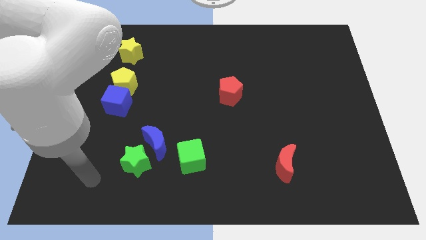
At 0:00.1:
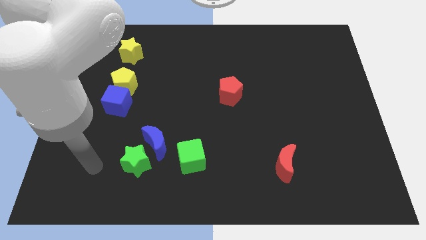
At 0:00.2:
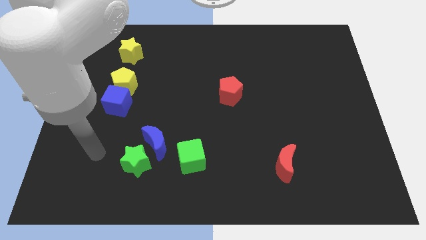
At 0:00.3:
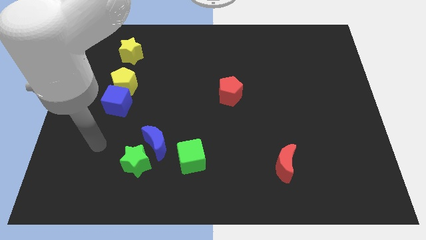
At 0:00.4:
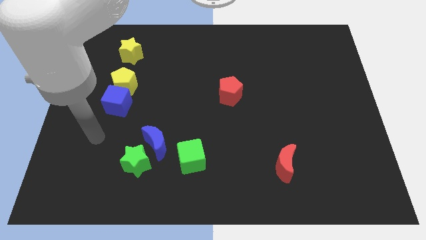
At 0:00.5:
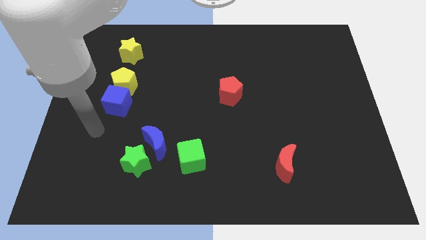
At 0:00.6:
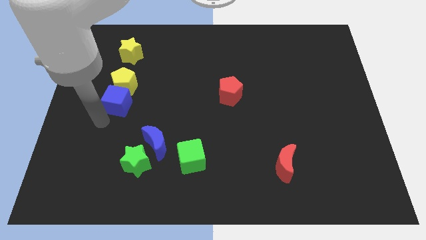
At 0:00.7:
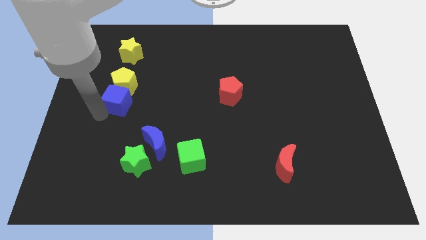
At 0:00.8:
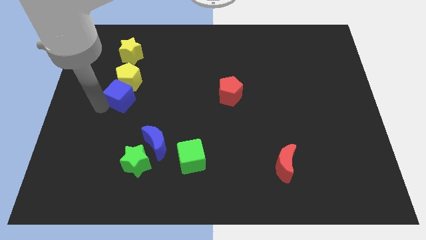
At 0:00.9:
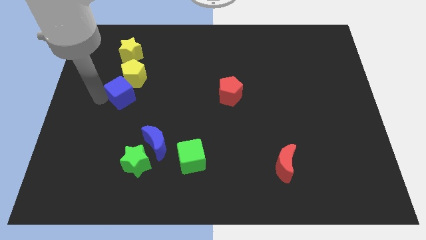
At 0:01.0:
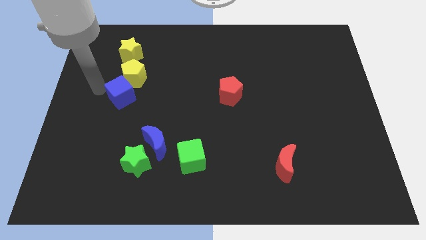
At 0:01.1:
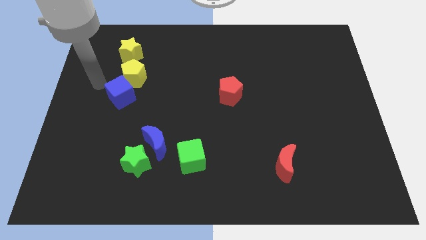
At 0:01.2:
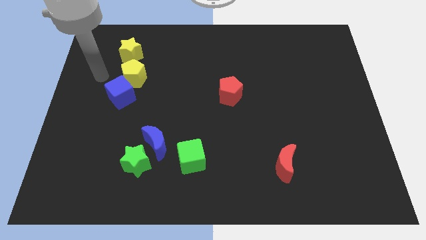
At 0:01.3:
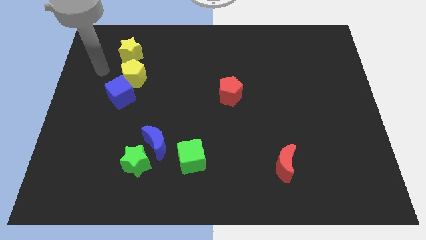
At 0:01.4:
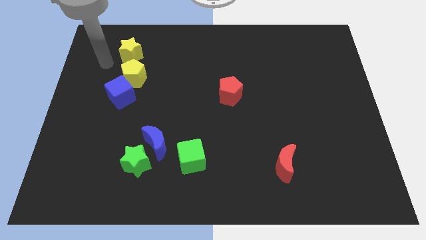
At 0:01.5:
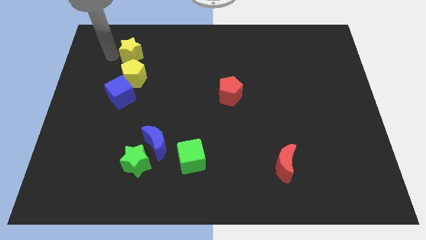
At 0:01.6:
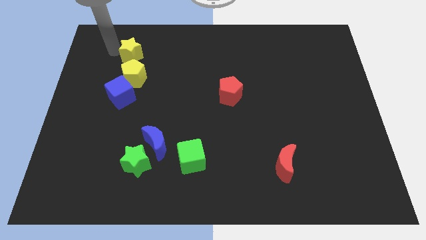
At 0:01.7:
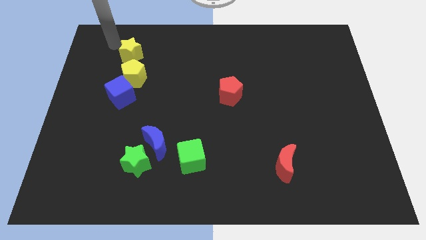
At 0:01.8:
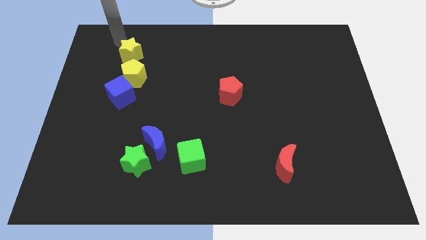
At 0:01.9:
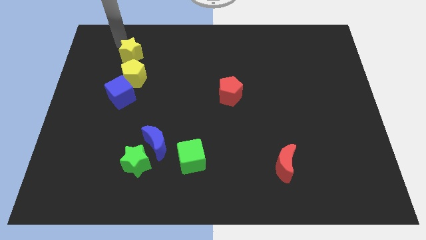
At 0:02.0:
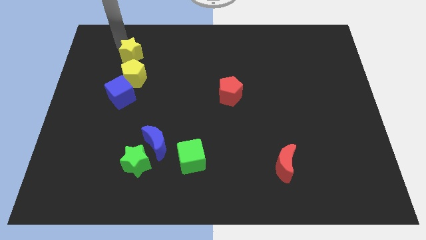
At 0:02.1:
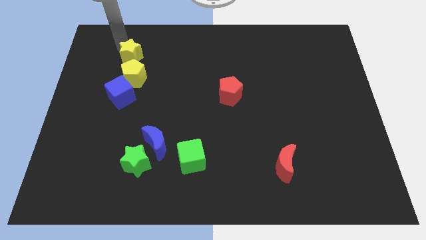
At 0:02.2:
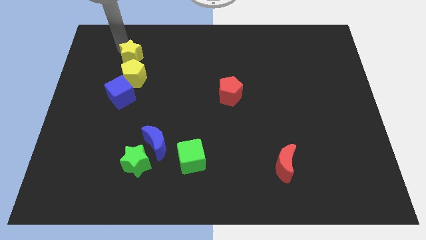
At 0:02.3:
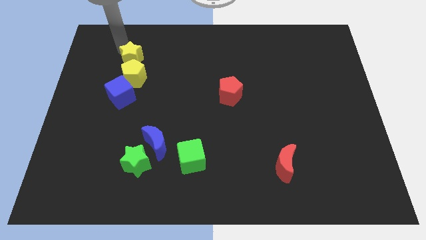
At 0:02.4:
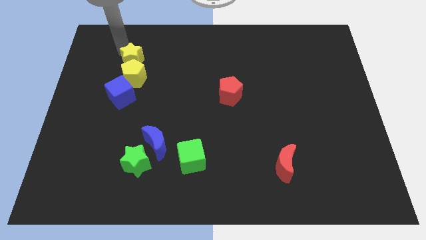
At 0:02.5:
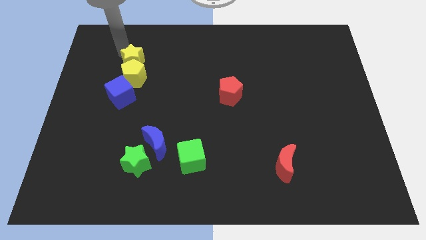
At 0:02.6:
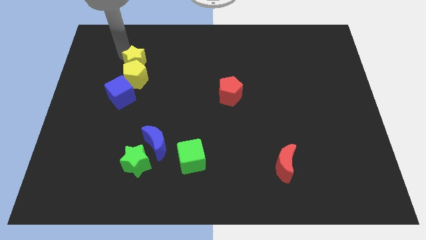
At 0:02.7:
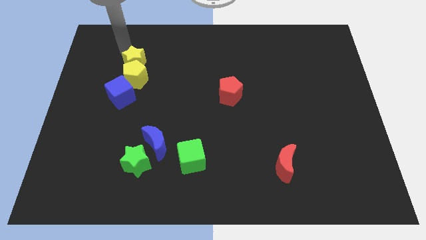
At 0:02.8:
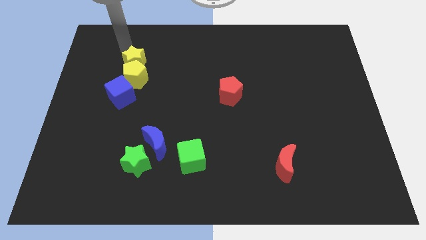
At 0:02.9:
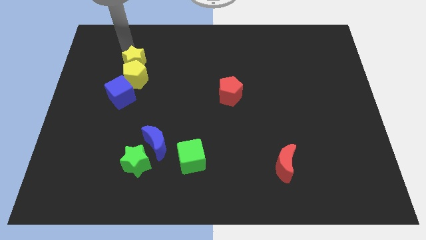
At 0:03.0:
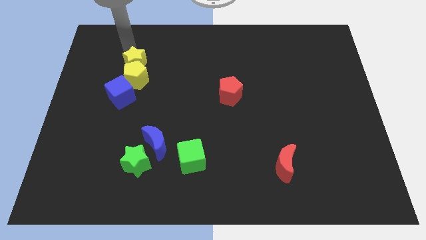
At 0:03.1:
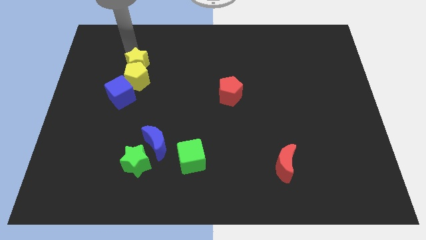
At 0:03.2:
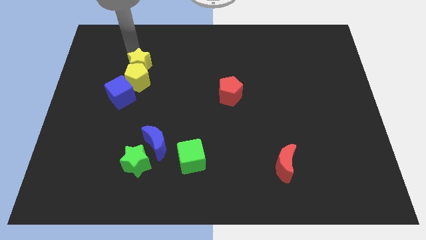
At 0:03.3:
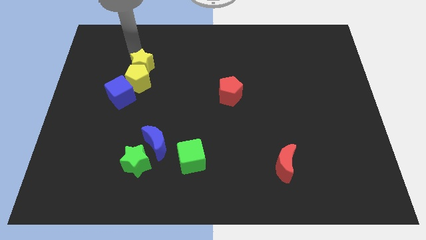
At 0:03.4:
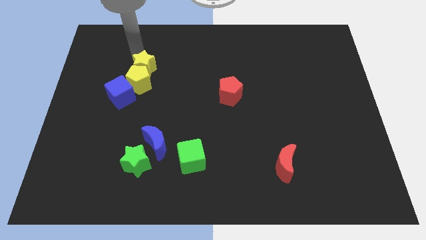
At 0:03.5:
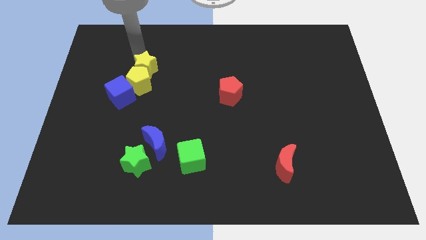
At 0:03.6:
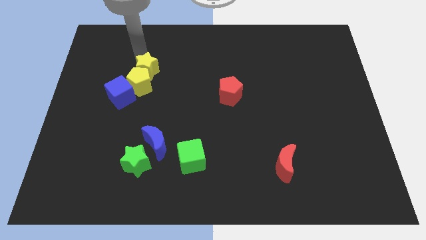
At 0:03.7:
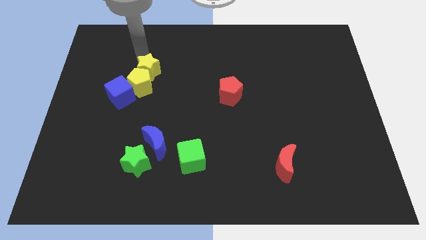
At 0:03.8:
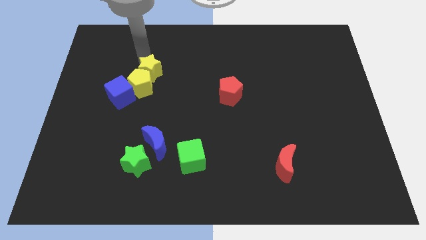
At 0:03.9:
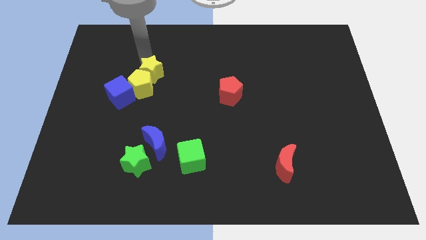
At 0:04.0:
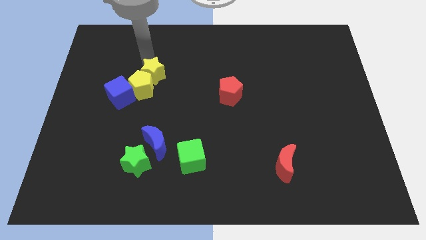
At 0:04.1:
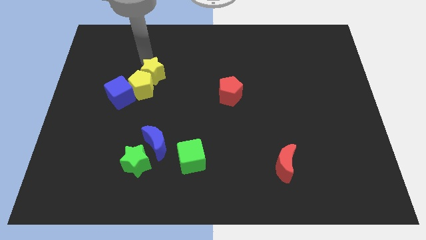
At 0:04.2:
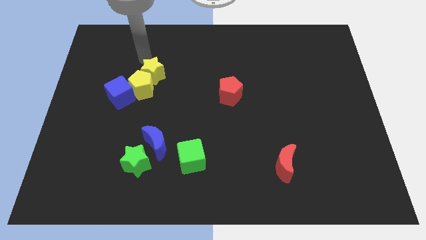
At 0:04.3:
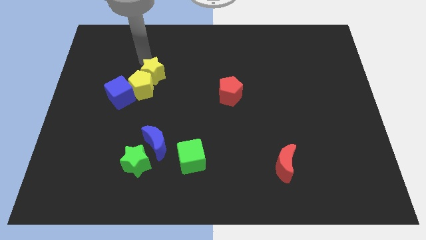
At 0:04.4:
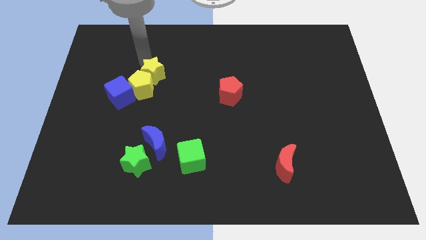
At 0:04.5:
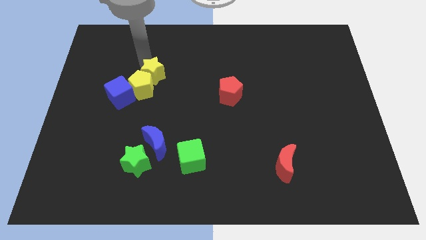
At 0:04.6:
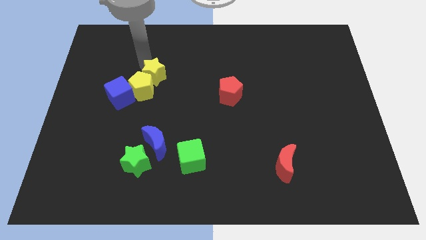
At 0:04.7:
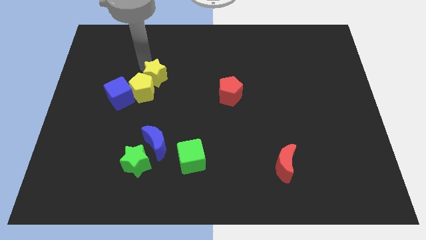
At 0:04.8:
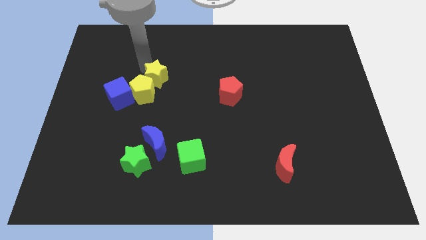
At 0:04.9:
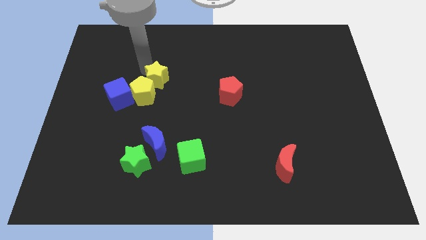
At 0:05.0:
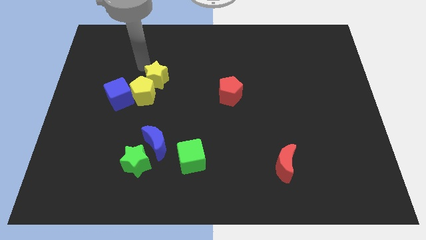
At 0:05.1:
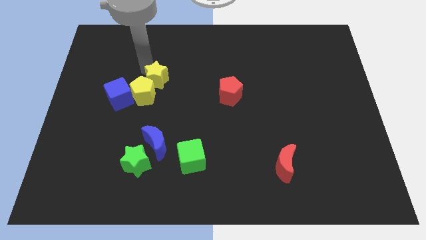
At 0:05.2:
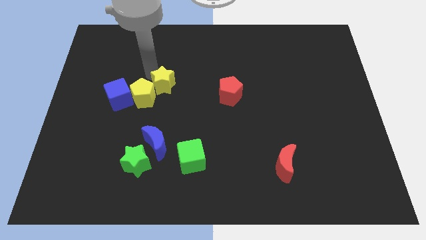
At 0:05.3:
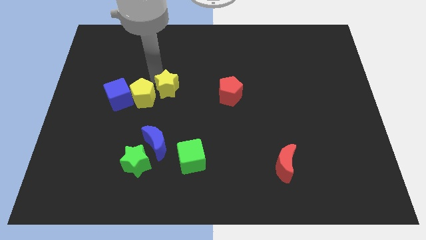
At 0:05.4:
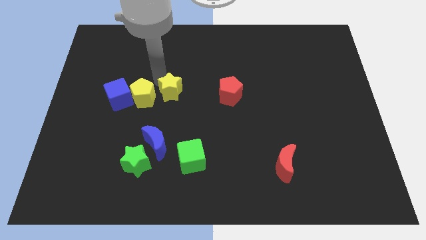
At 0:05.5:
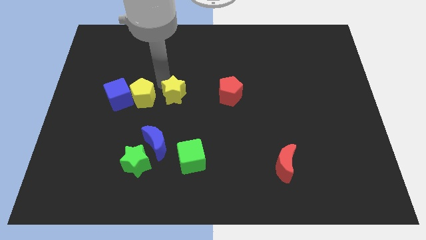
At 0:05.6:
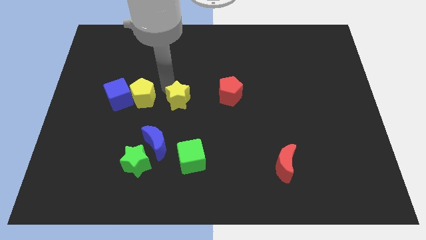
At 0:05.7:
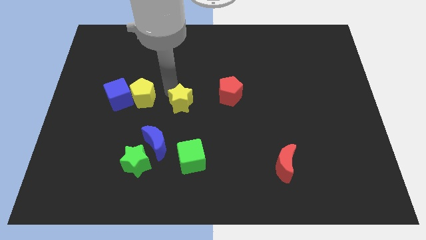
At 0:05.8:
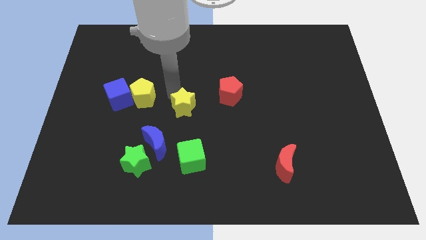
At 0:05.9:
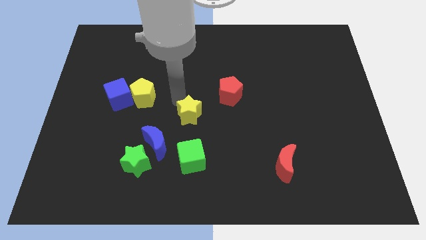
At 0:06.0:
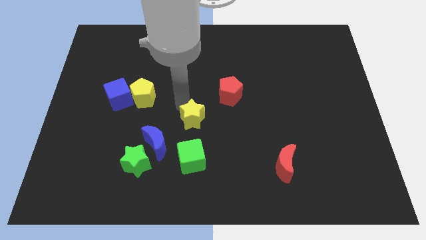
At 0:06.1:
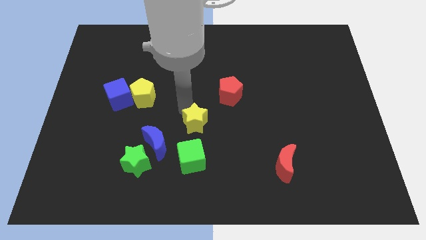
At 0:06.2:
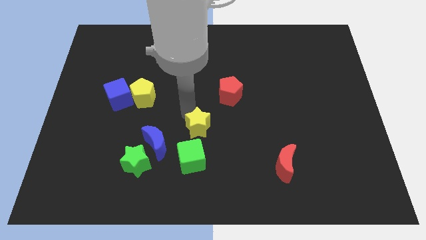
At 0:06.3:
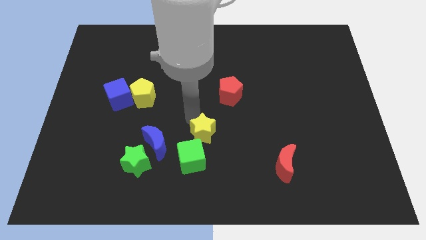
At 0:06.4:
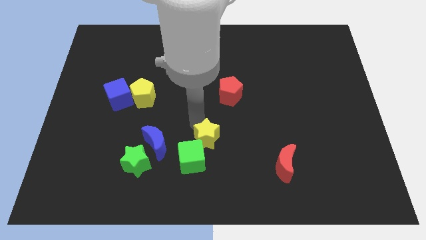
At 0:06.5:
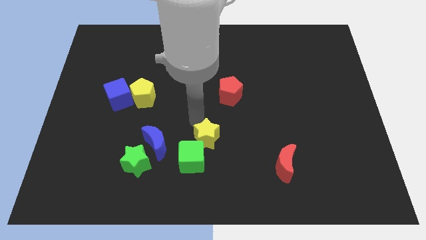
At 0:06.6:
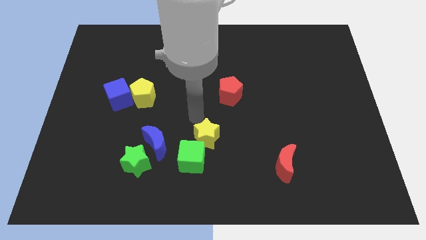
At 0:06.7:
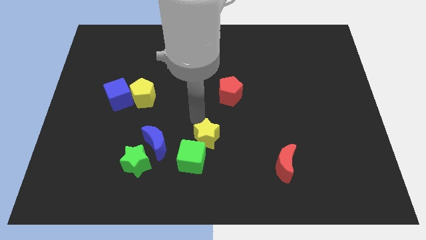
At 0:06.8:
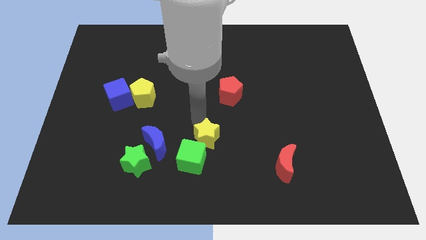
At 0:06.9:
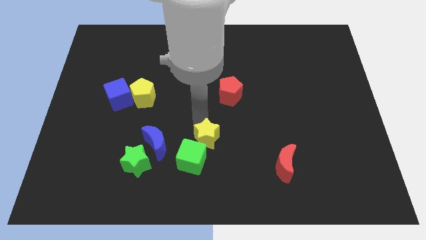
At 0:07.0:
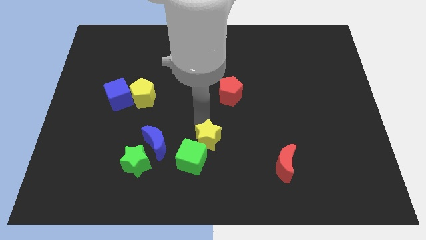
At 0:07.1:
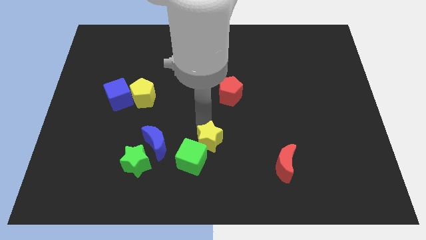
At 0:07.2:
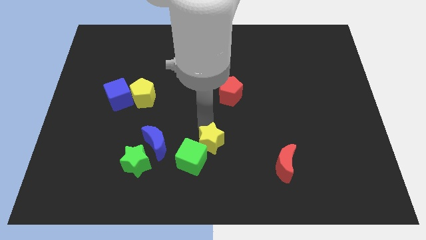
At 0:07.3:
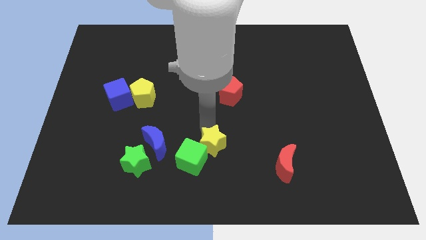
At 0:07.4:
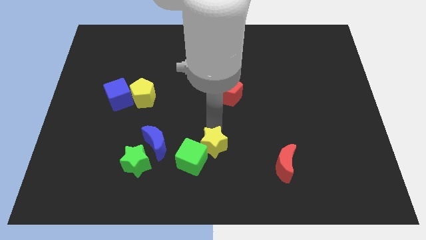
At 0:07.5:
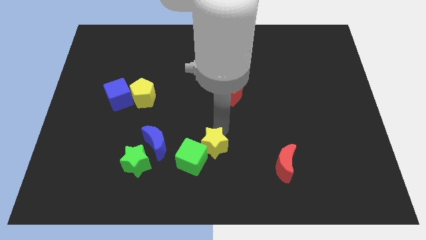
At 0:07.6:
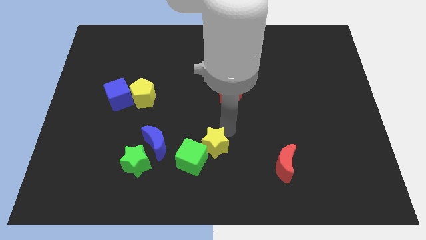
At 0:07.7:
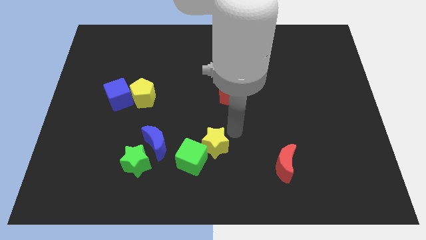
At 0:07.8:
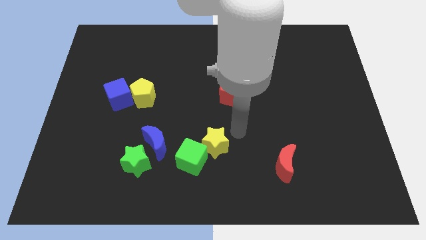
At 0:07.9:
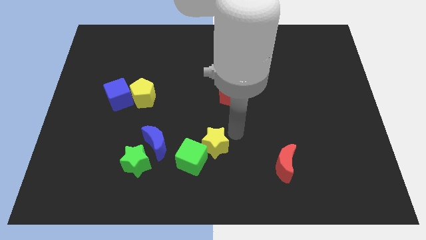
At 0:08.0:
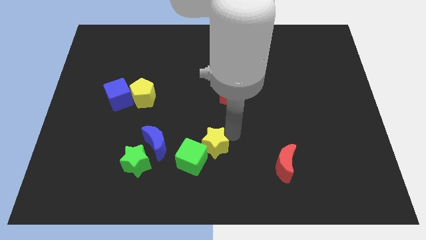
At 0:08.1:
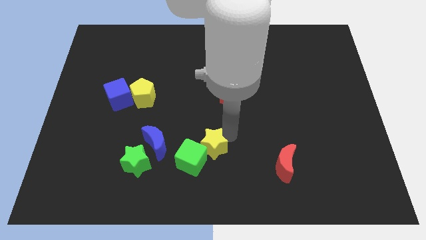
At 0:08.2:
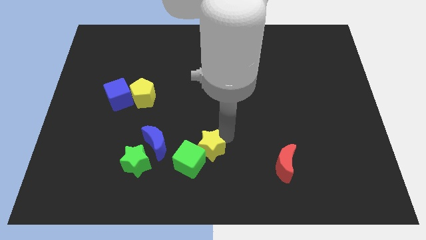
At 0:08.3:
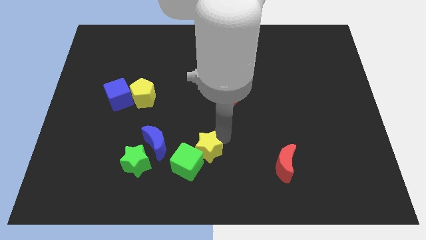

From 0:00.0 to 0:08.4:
move the yellow star to the right of the green star
